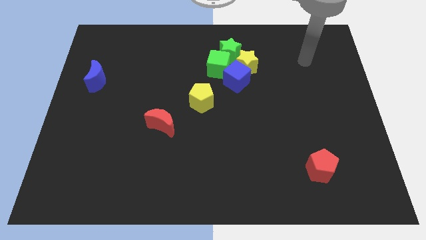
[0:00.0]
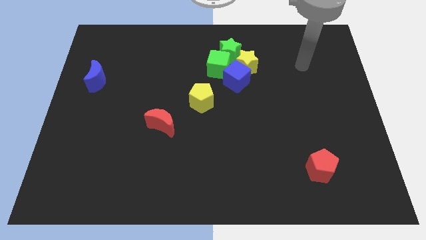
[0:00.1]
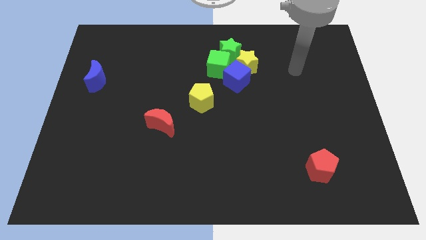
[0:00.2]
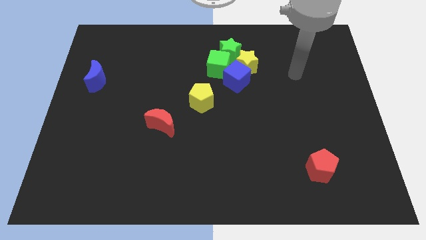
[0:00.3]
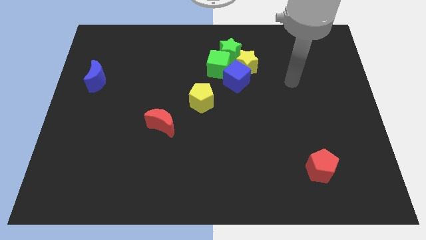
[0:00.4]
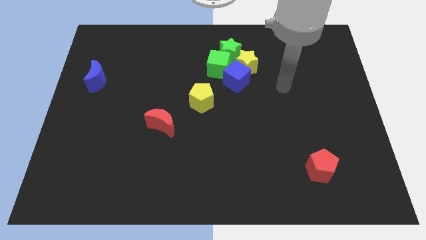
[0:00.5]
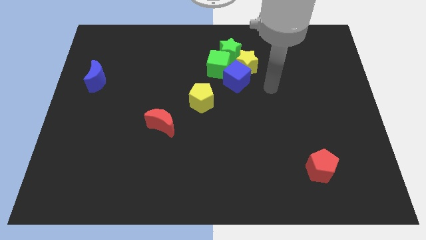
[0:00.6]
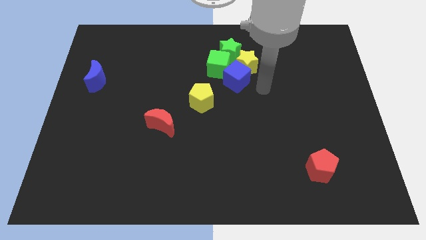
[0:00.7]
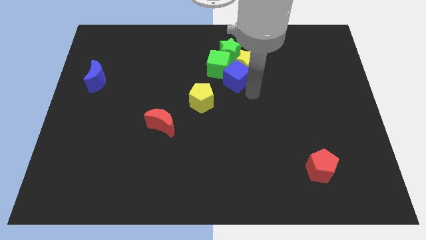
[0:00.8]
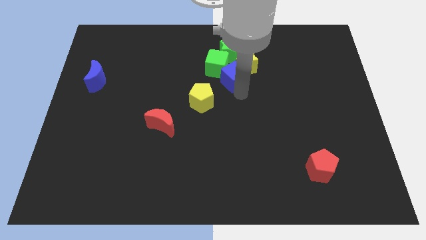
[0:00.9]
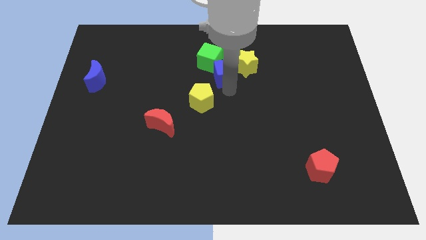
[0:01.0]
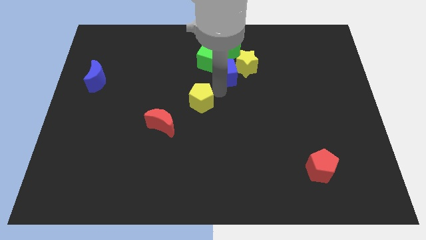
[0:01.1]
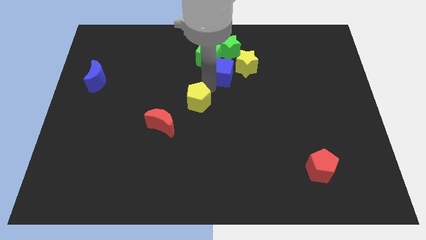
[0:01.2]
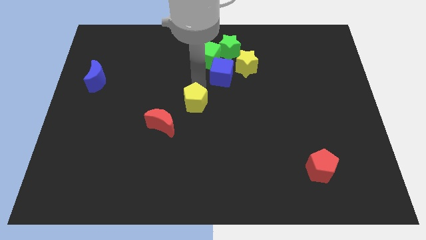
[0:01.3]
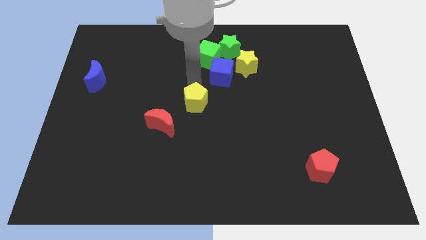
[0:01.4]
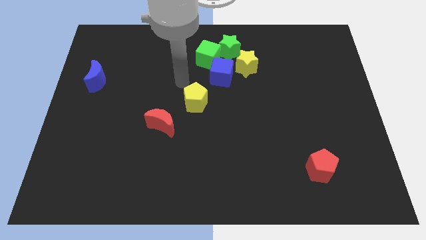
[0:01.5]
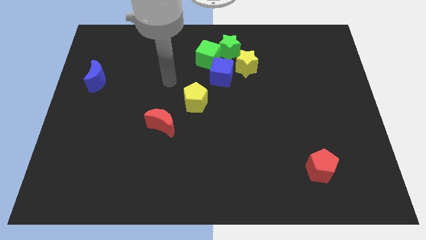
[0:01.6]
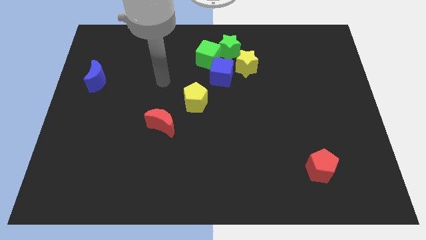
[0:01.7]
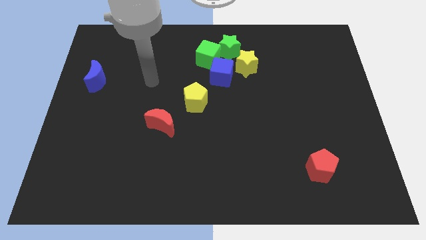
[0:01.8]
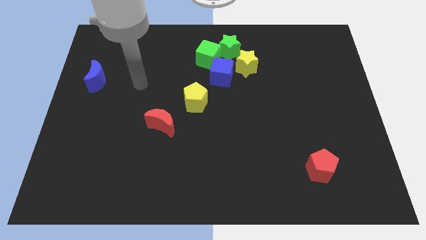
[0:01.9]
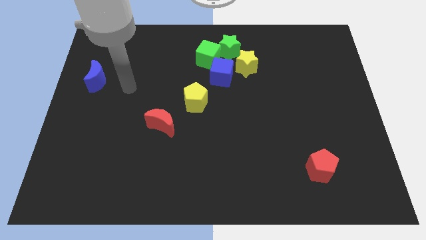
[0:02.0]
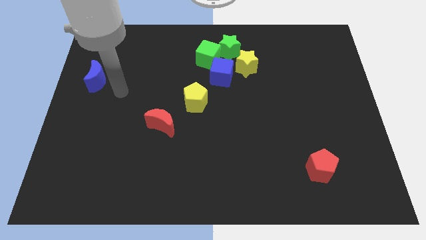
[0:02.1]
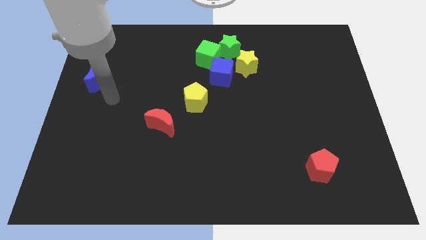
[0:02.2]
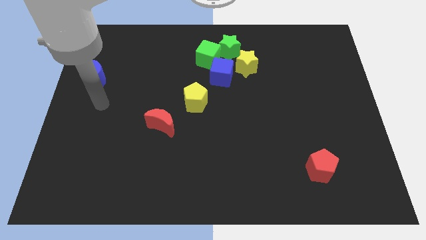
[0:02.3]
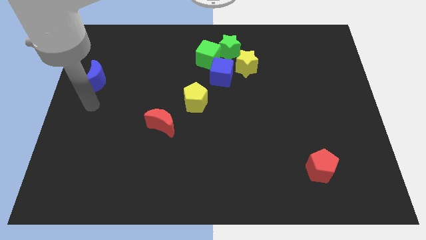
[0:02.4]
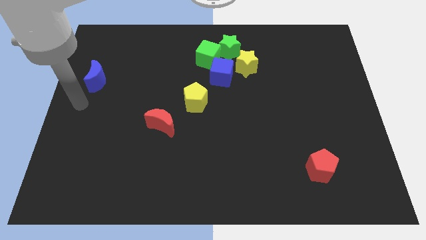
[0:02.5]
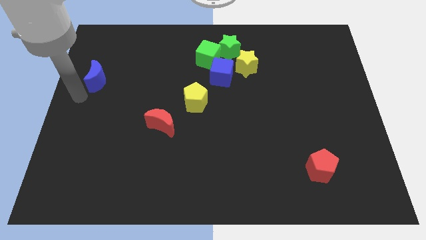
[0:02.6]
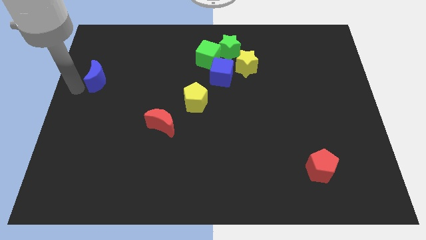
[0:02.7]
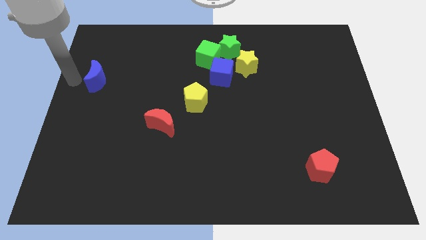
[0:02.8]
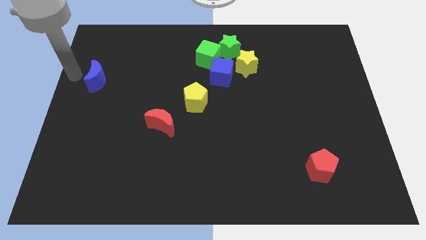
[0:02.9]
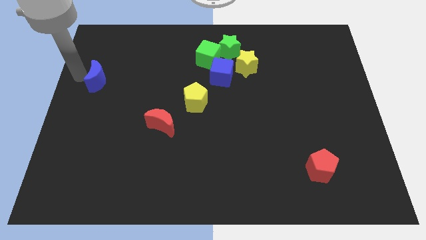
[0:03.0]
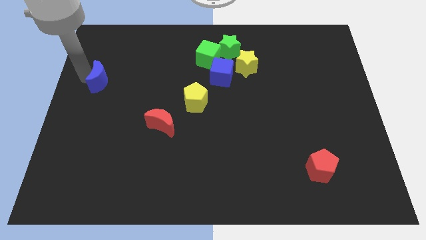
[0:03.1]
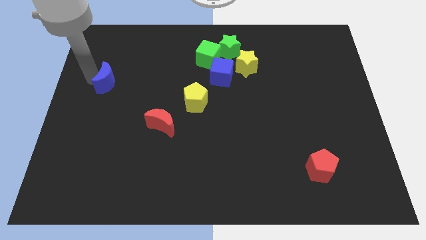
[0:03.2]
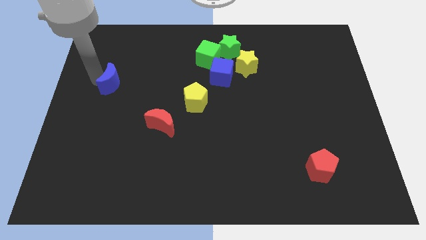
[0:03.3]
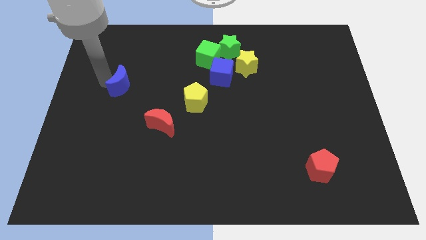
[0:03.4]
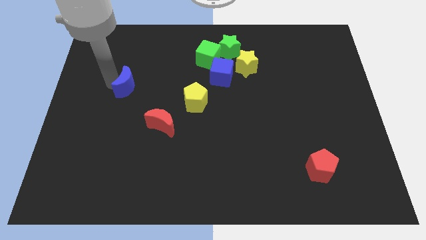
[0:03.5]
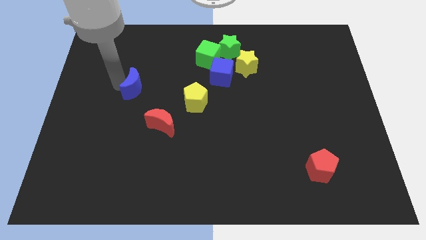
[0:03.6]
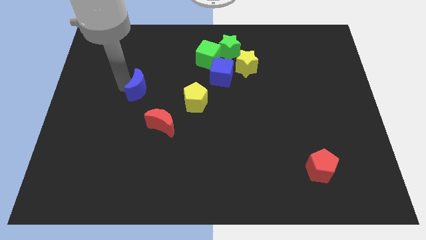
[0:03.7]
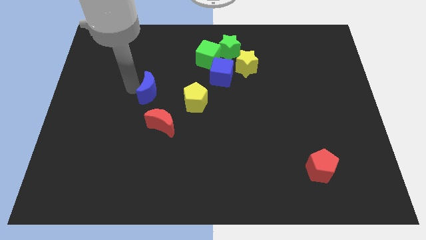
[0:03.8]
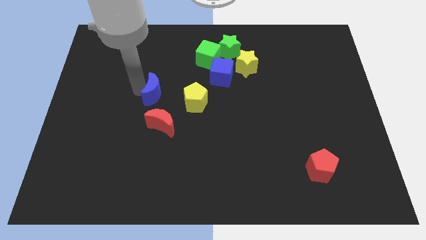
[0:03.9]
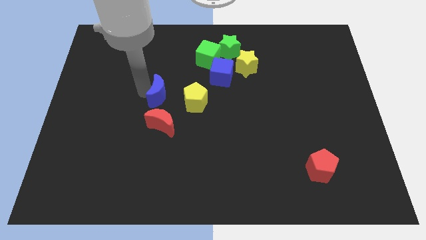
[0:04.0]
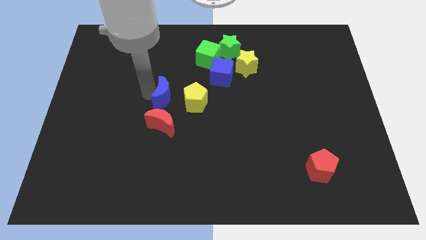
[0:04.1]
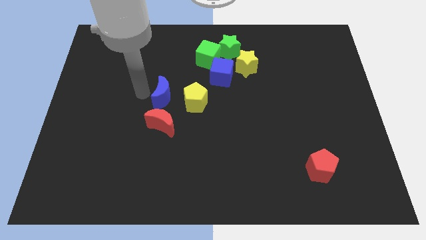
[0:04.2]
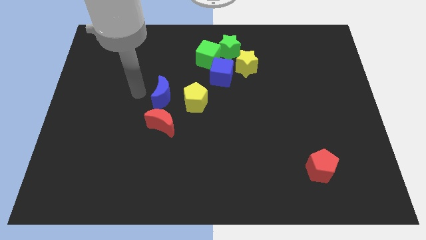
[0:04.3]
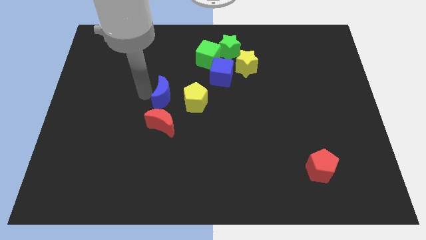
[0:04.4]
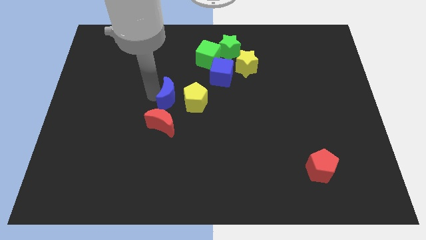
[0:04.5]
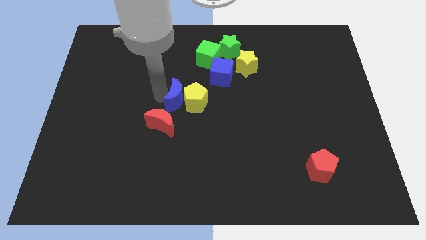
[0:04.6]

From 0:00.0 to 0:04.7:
put the blue moon next to the yellow pentagon

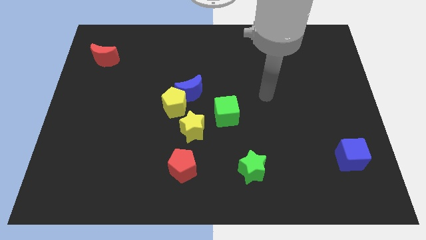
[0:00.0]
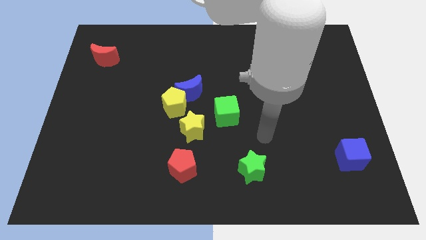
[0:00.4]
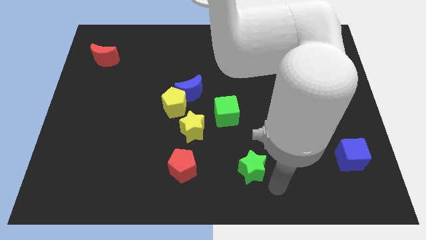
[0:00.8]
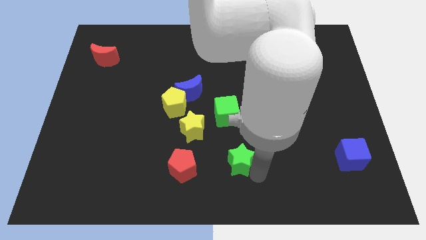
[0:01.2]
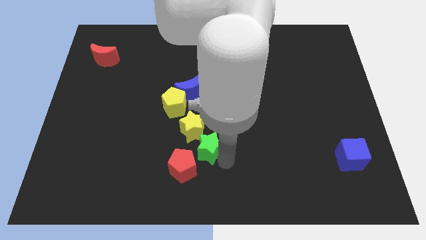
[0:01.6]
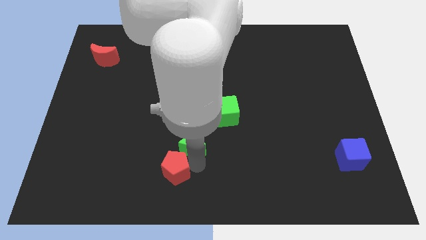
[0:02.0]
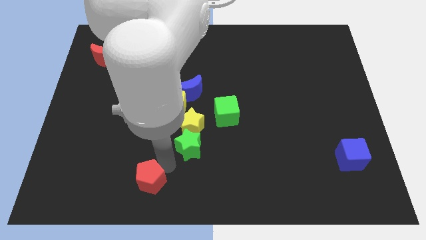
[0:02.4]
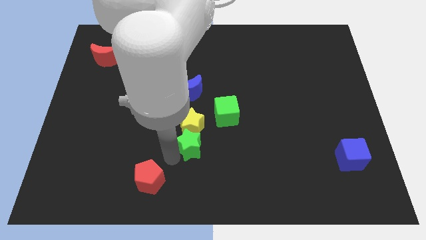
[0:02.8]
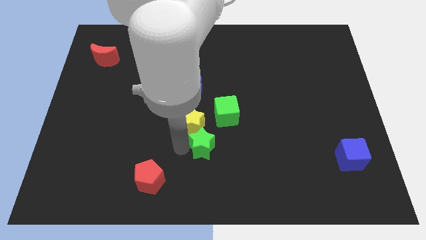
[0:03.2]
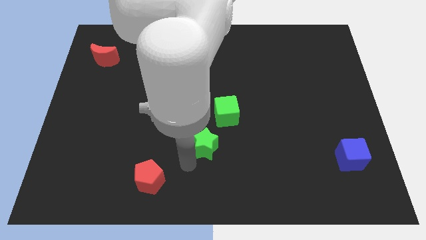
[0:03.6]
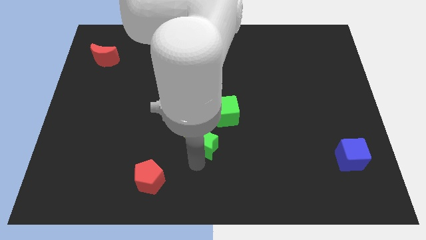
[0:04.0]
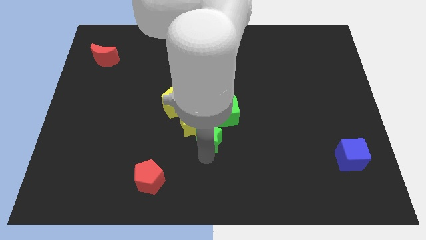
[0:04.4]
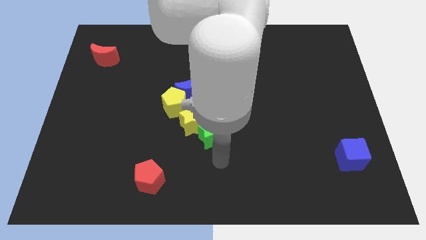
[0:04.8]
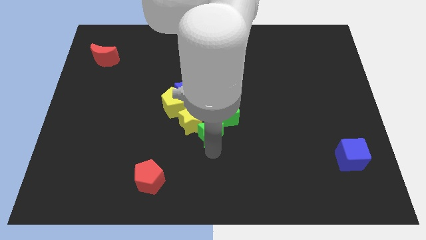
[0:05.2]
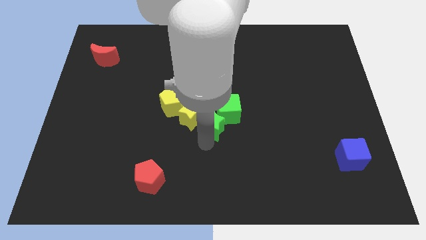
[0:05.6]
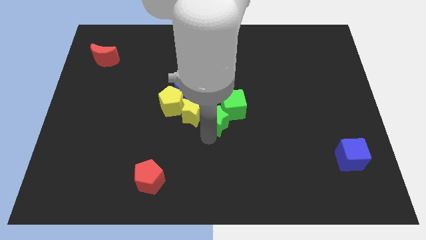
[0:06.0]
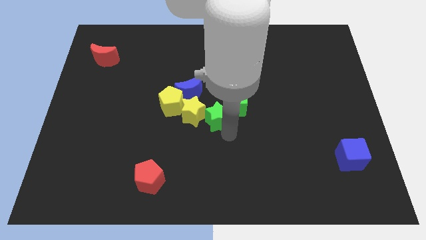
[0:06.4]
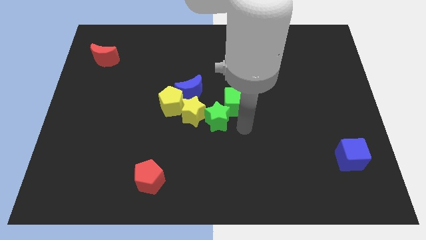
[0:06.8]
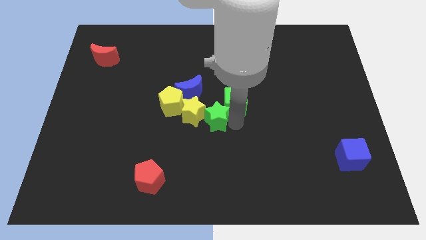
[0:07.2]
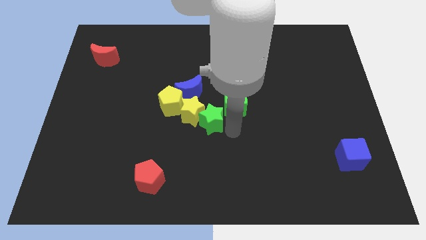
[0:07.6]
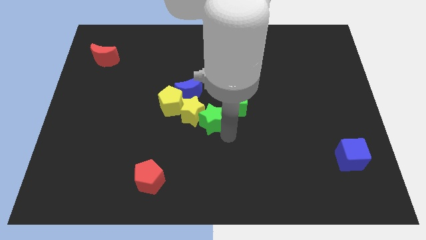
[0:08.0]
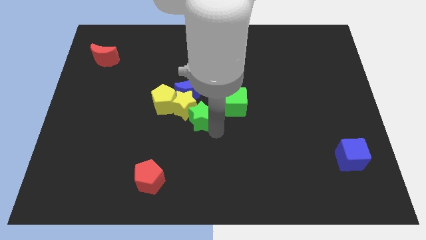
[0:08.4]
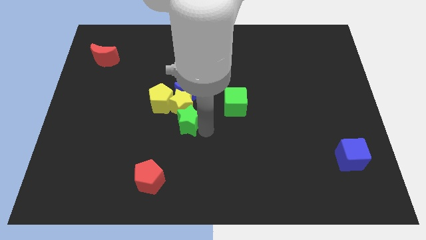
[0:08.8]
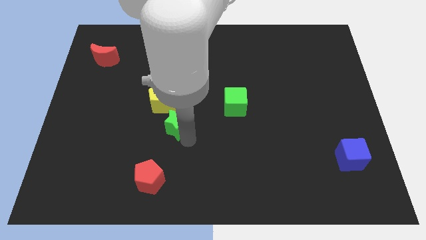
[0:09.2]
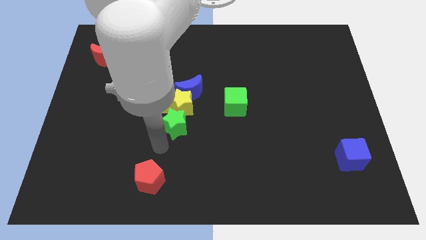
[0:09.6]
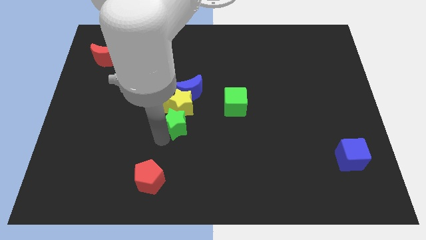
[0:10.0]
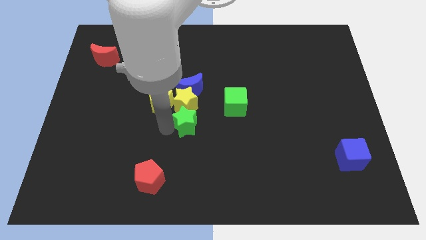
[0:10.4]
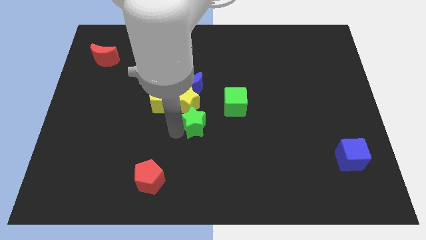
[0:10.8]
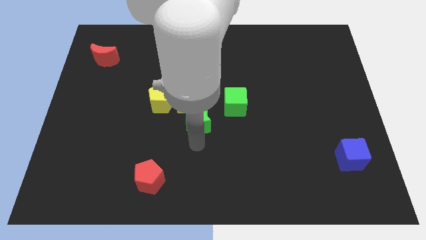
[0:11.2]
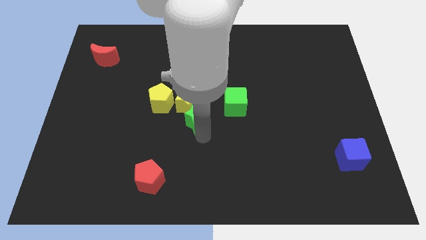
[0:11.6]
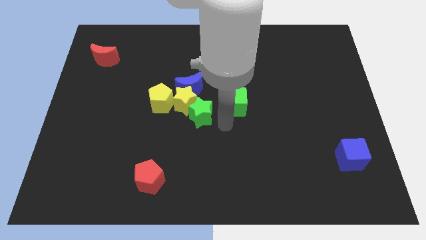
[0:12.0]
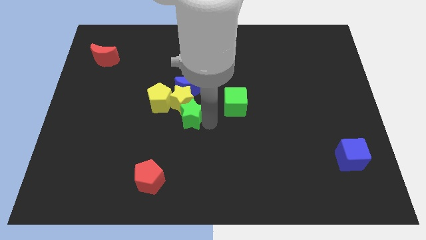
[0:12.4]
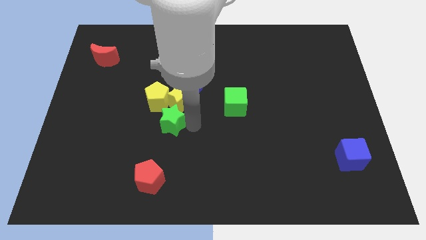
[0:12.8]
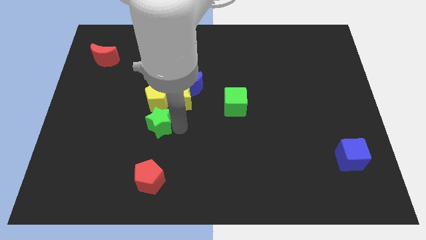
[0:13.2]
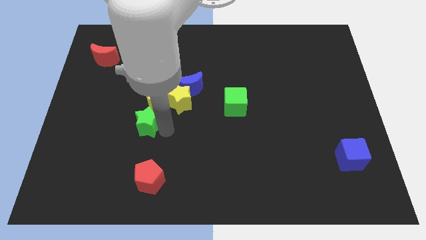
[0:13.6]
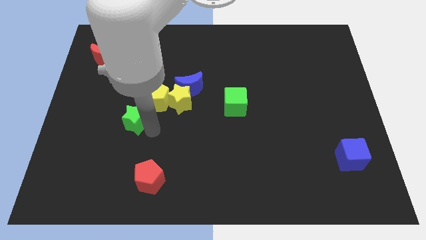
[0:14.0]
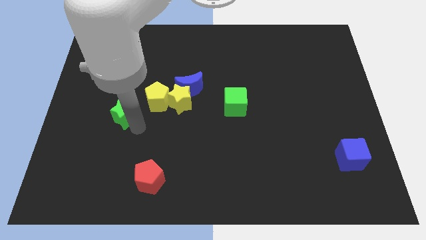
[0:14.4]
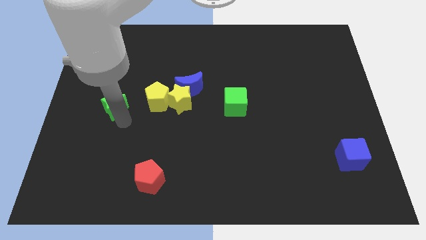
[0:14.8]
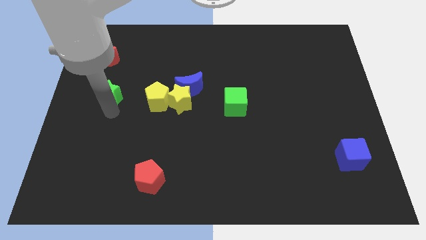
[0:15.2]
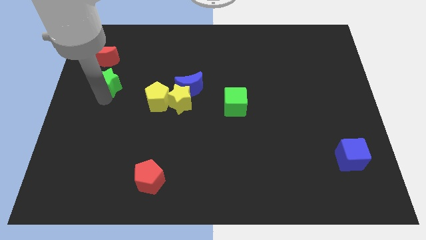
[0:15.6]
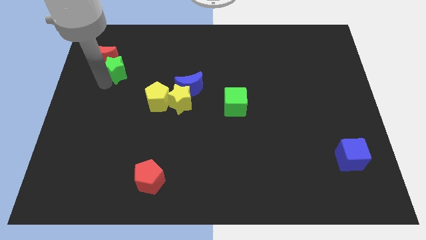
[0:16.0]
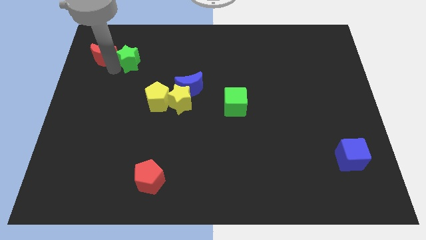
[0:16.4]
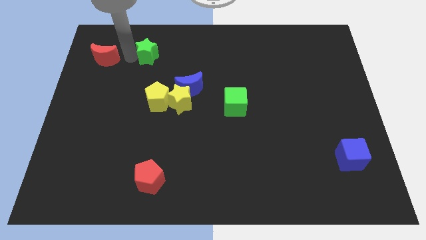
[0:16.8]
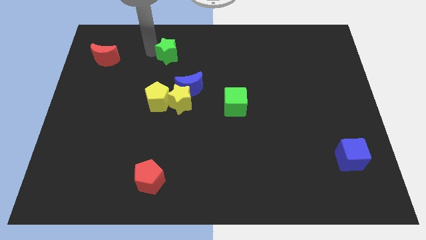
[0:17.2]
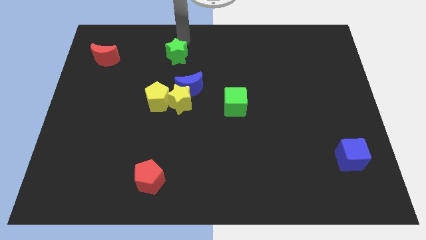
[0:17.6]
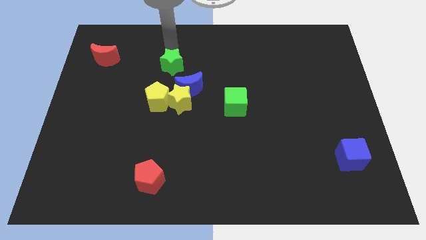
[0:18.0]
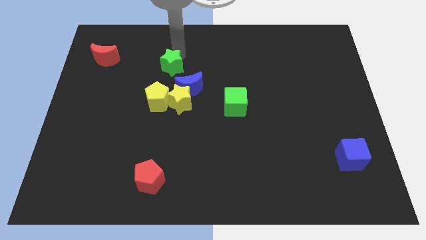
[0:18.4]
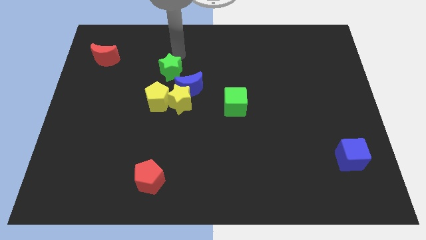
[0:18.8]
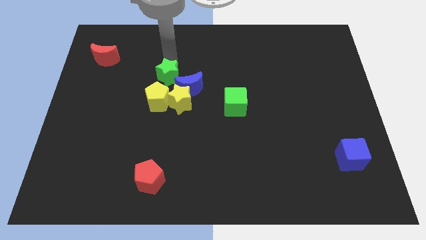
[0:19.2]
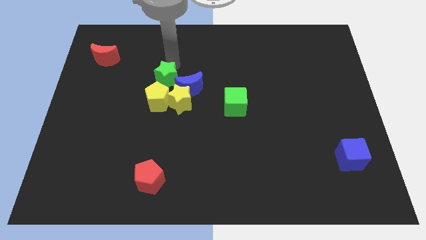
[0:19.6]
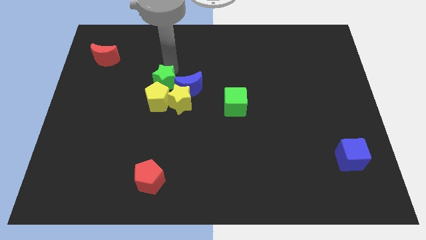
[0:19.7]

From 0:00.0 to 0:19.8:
move the green star towards the yellow pentagon
